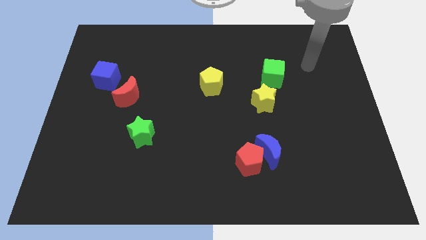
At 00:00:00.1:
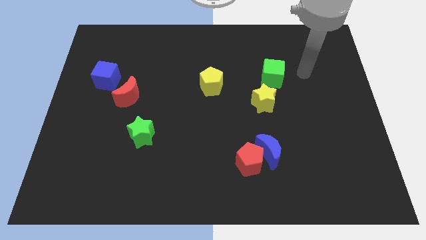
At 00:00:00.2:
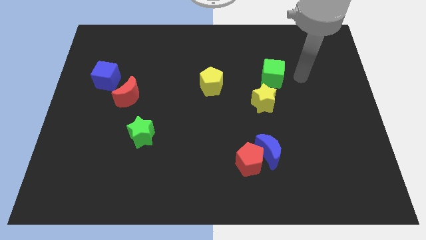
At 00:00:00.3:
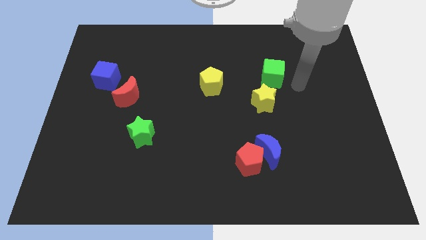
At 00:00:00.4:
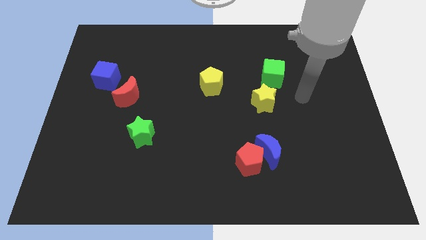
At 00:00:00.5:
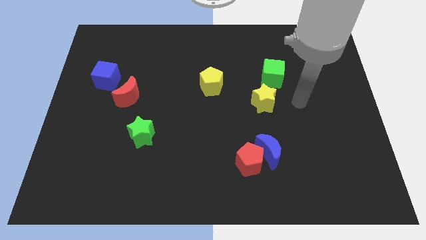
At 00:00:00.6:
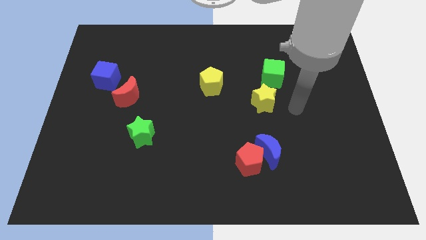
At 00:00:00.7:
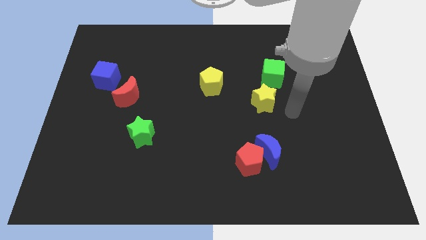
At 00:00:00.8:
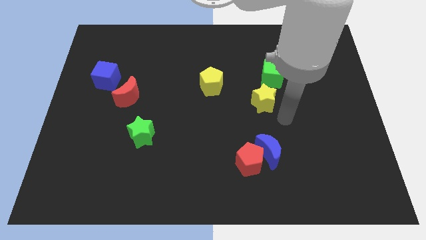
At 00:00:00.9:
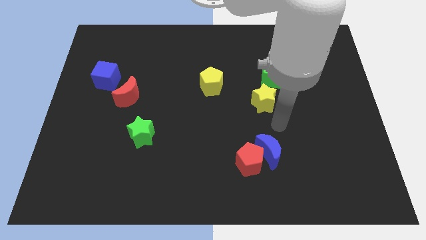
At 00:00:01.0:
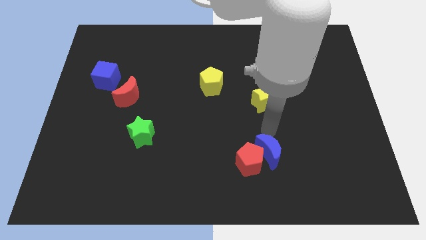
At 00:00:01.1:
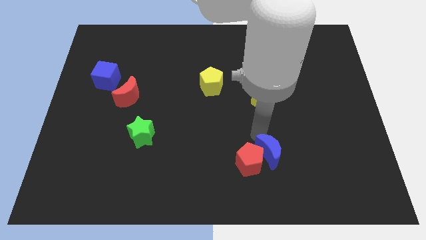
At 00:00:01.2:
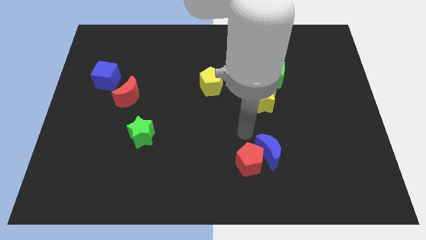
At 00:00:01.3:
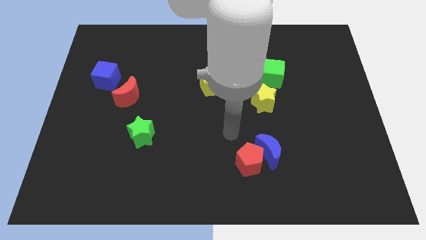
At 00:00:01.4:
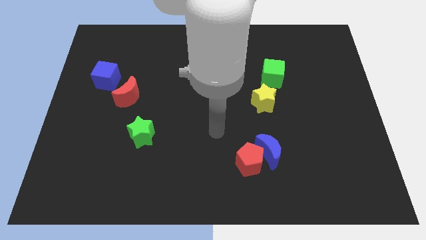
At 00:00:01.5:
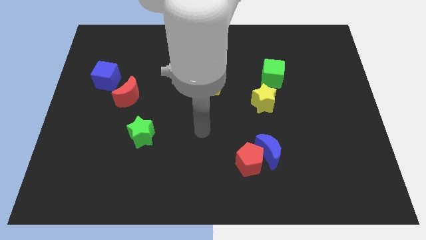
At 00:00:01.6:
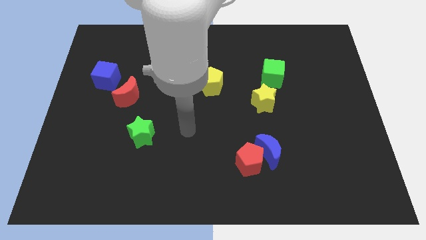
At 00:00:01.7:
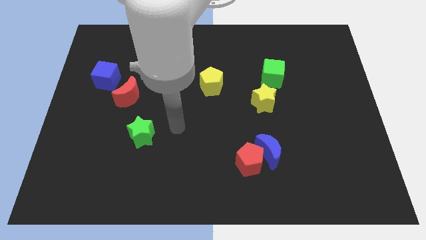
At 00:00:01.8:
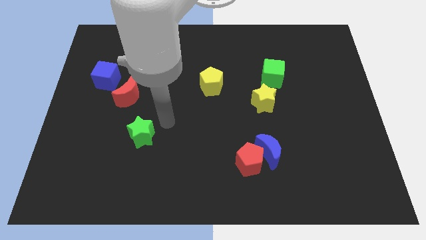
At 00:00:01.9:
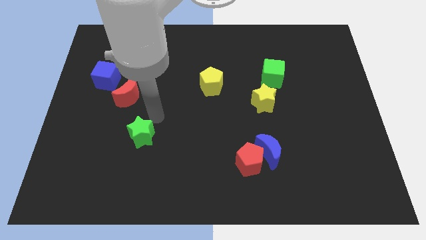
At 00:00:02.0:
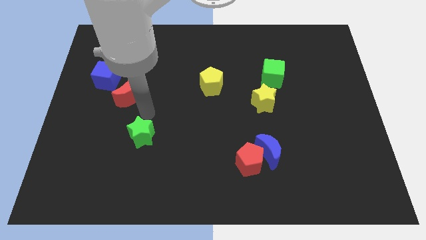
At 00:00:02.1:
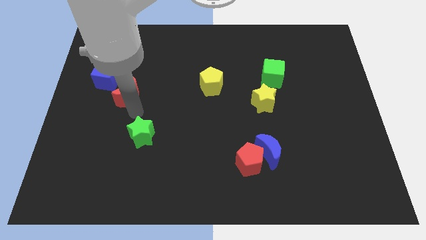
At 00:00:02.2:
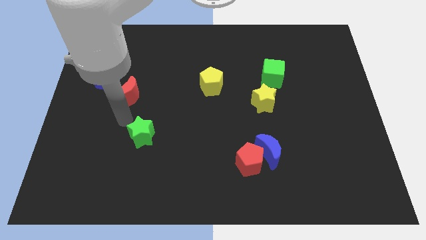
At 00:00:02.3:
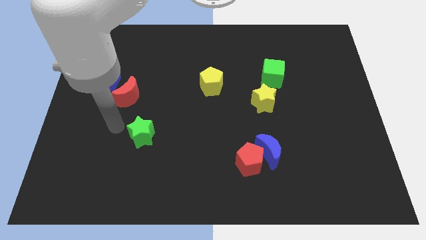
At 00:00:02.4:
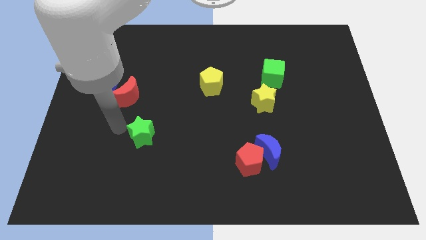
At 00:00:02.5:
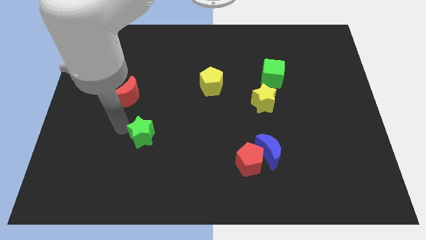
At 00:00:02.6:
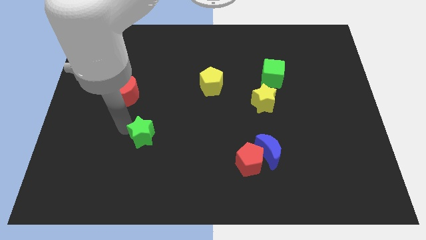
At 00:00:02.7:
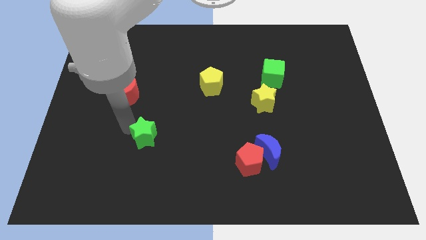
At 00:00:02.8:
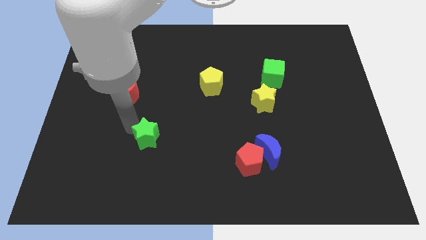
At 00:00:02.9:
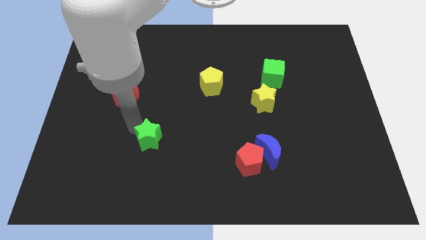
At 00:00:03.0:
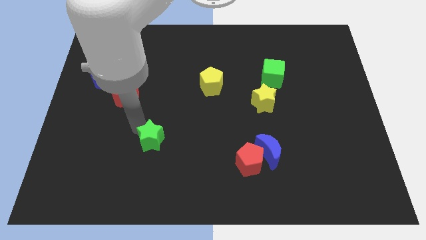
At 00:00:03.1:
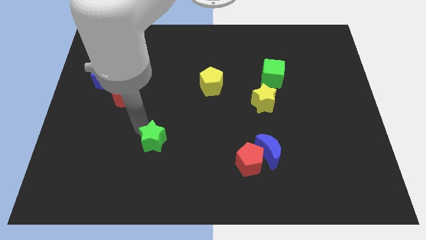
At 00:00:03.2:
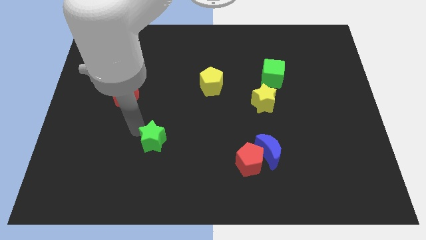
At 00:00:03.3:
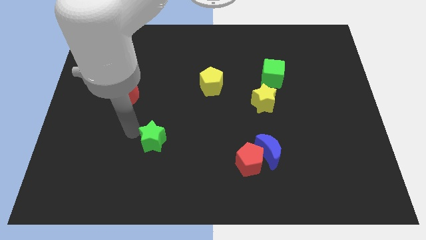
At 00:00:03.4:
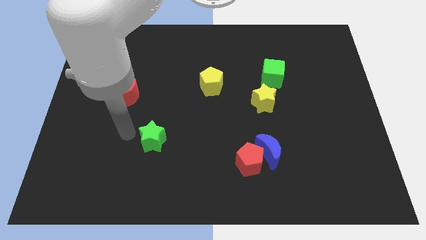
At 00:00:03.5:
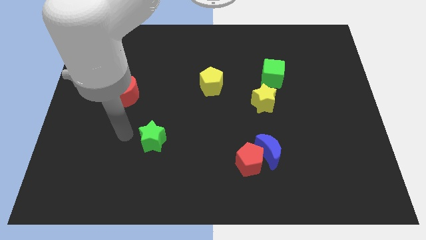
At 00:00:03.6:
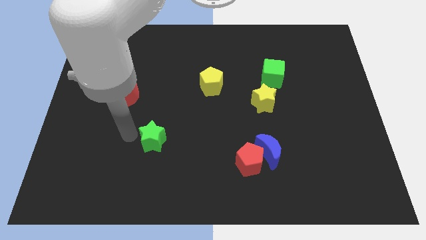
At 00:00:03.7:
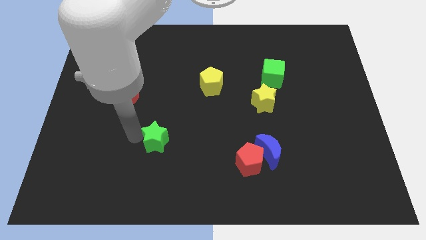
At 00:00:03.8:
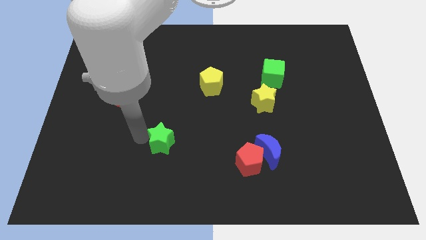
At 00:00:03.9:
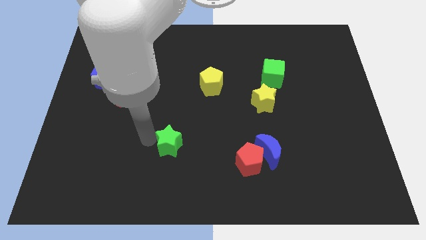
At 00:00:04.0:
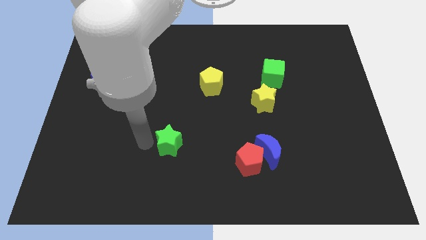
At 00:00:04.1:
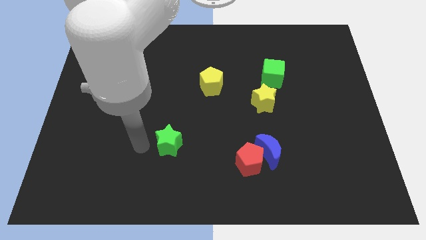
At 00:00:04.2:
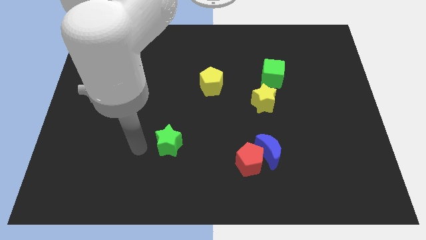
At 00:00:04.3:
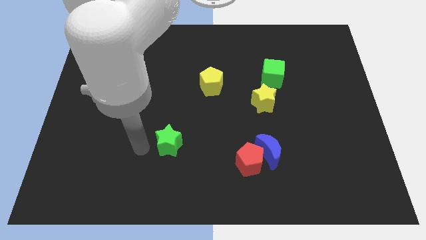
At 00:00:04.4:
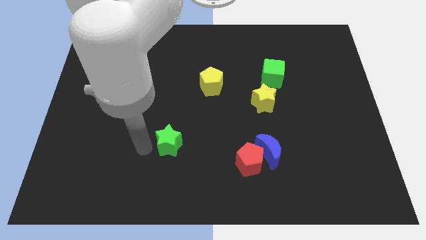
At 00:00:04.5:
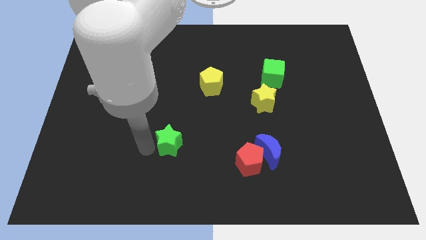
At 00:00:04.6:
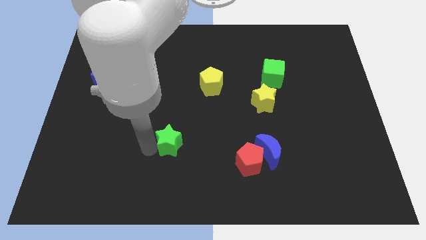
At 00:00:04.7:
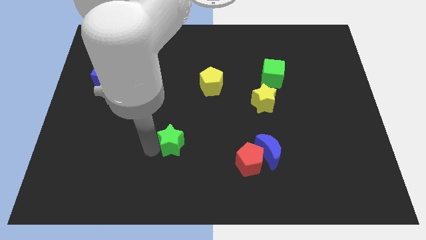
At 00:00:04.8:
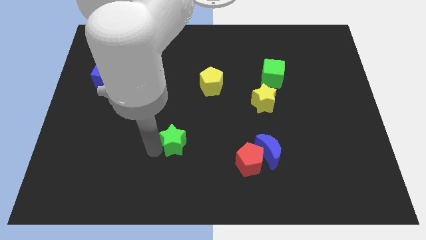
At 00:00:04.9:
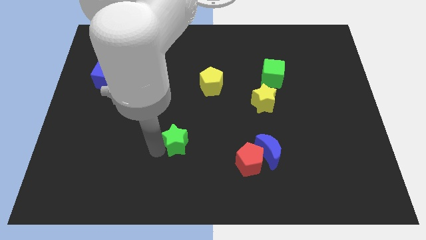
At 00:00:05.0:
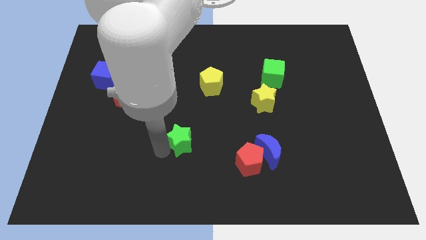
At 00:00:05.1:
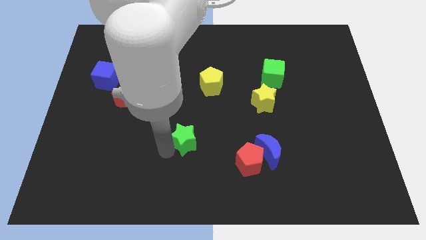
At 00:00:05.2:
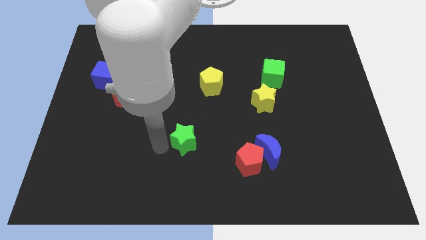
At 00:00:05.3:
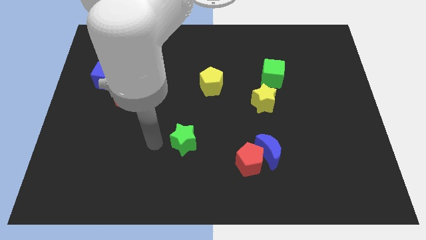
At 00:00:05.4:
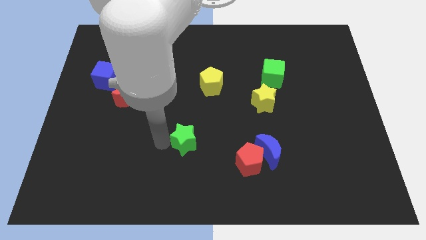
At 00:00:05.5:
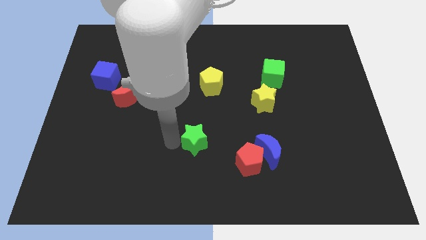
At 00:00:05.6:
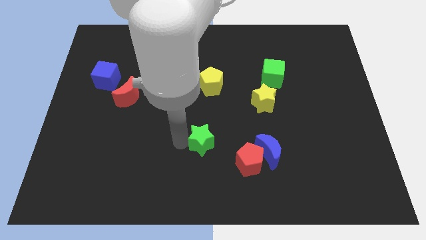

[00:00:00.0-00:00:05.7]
move the green star to the top left of the red pentagon
